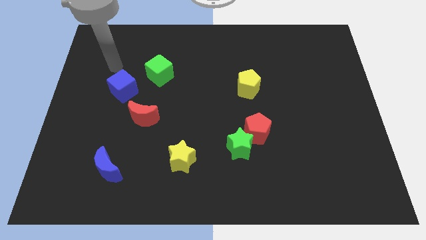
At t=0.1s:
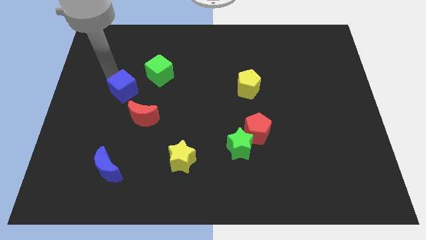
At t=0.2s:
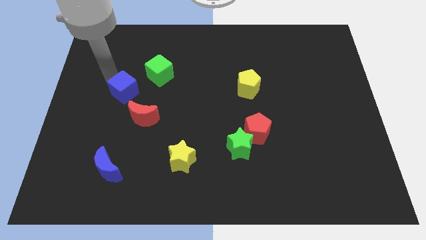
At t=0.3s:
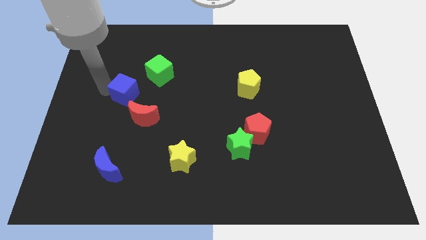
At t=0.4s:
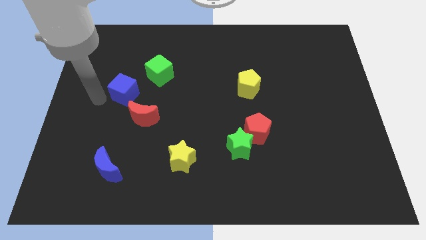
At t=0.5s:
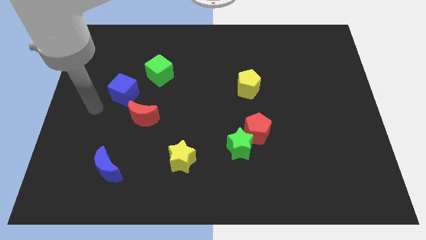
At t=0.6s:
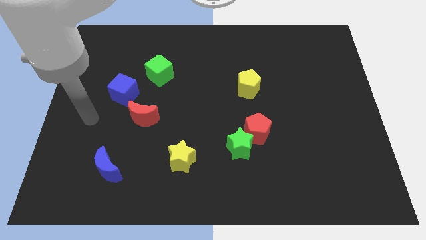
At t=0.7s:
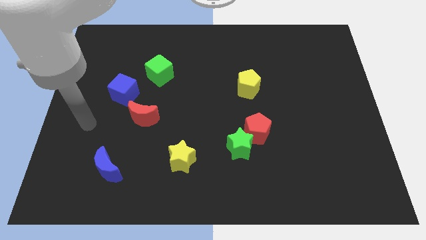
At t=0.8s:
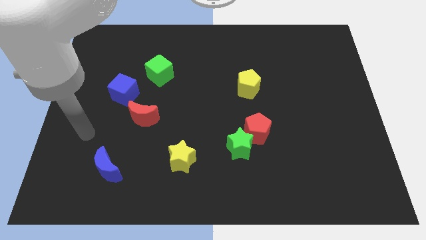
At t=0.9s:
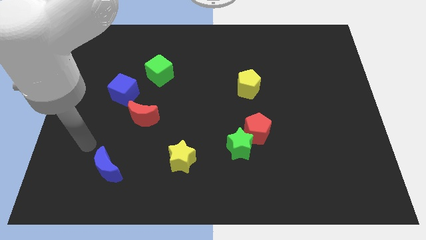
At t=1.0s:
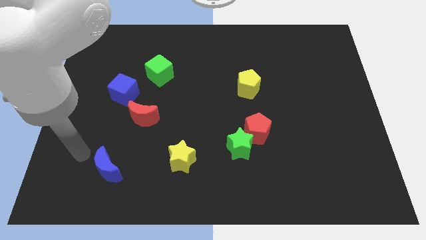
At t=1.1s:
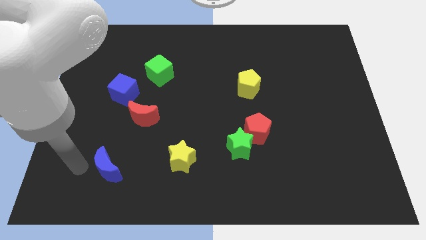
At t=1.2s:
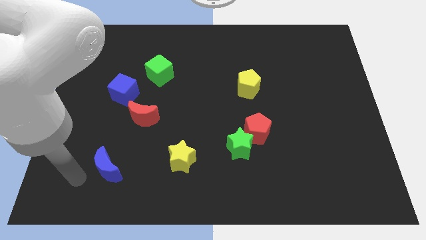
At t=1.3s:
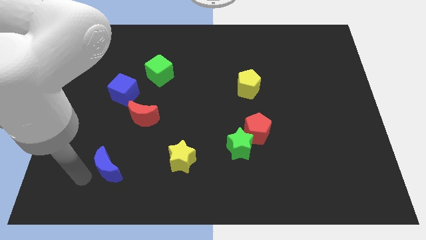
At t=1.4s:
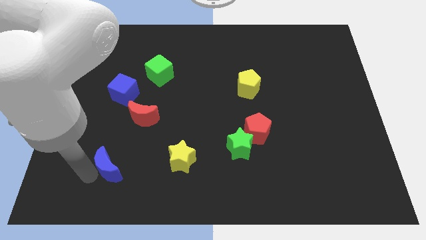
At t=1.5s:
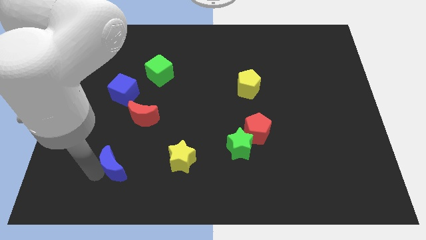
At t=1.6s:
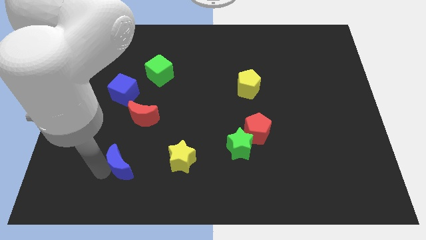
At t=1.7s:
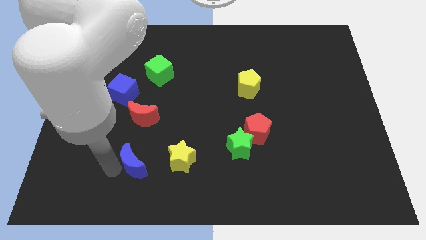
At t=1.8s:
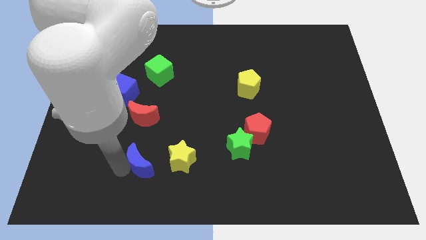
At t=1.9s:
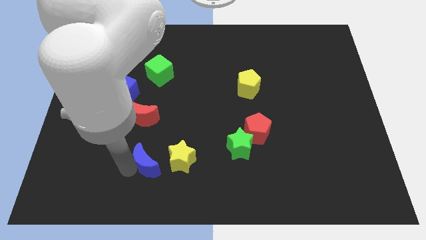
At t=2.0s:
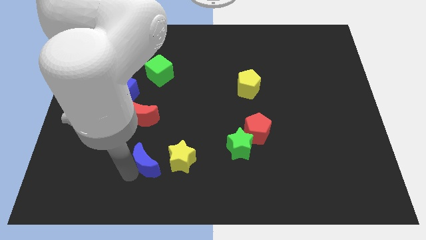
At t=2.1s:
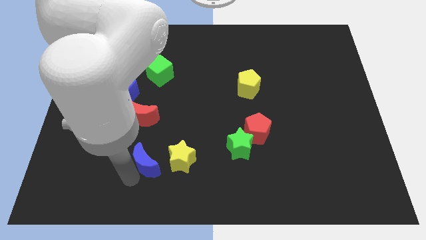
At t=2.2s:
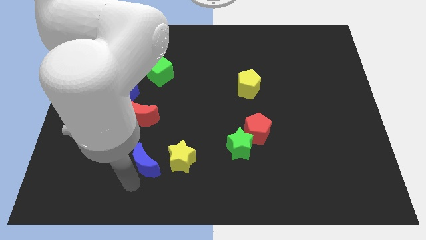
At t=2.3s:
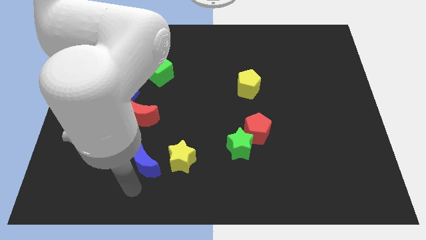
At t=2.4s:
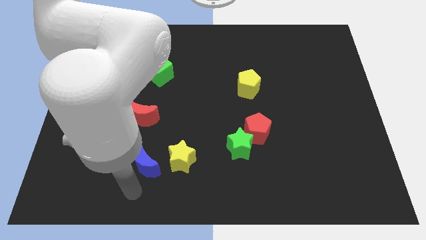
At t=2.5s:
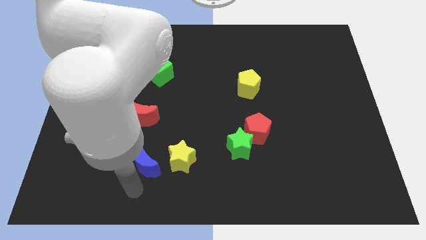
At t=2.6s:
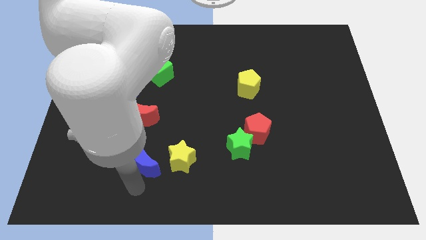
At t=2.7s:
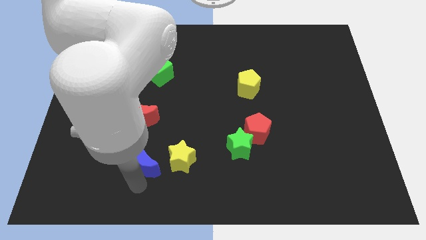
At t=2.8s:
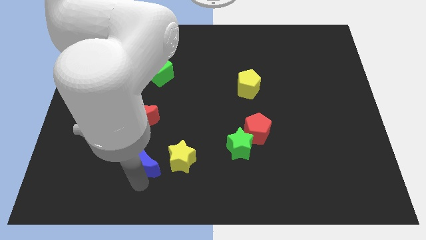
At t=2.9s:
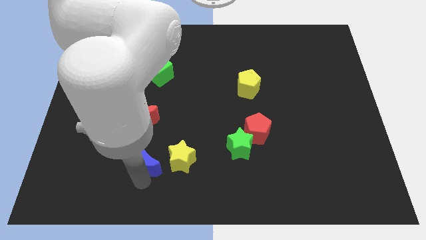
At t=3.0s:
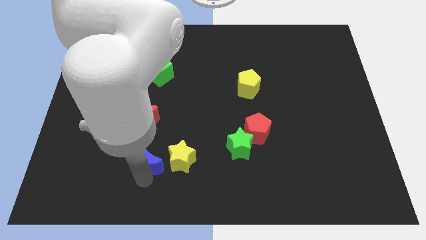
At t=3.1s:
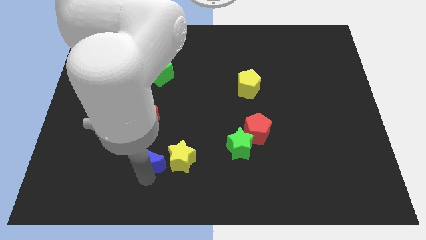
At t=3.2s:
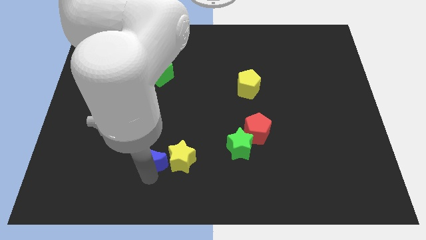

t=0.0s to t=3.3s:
slide the blue moon diagonally up and to the right a bit

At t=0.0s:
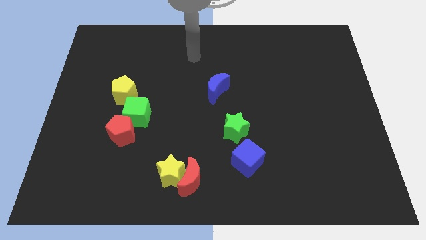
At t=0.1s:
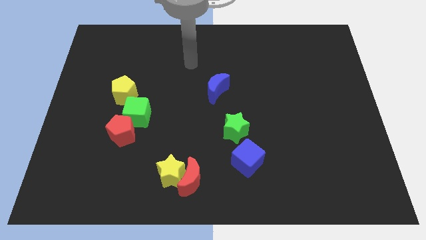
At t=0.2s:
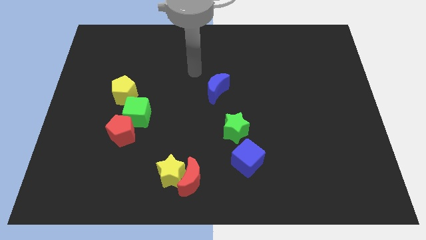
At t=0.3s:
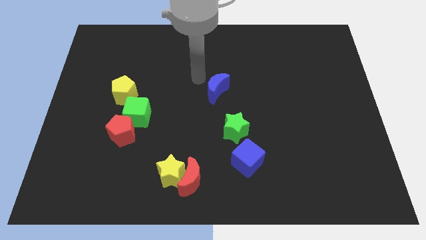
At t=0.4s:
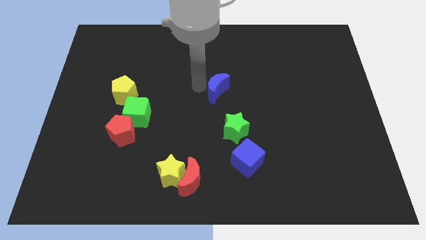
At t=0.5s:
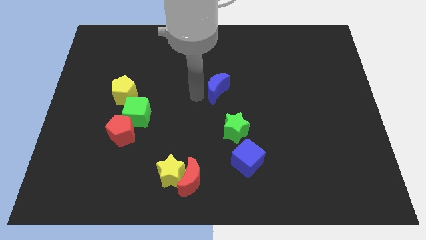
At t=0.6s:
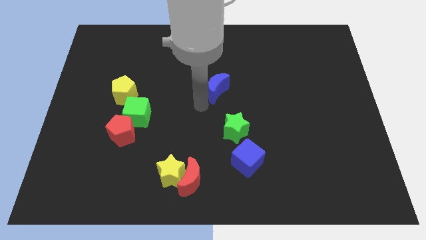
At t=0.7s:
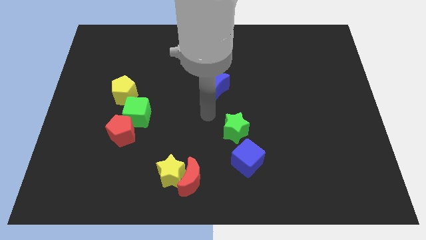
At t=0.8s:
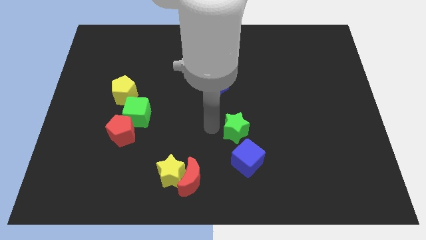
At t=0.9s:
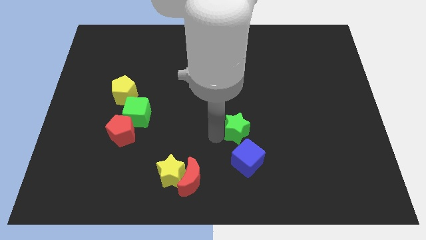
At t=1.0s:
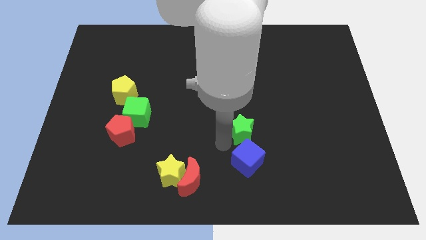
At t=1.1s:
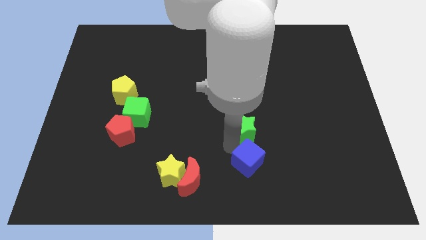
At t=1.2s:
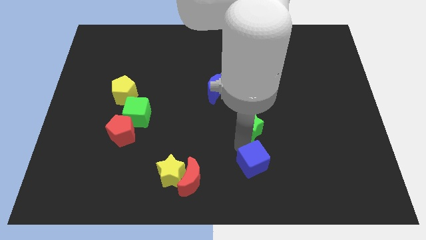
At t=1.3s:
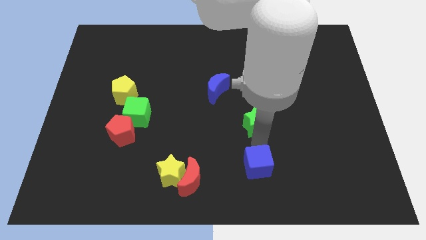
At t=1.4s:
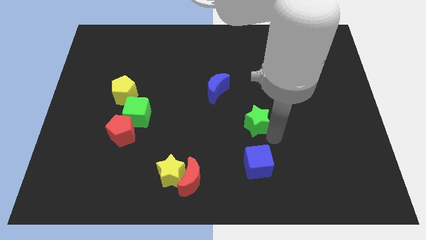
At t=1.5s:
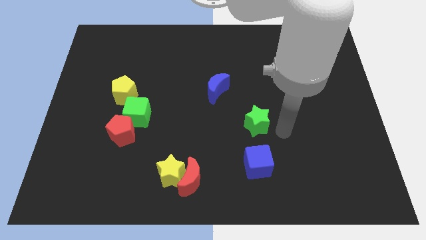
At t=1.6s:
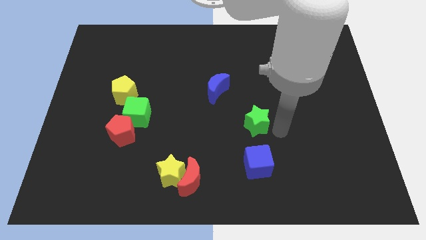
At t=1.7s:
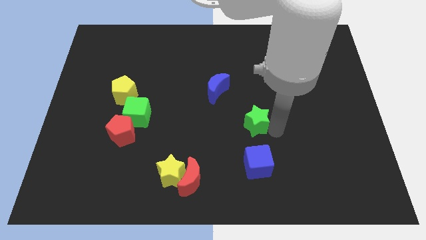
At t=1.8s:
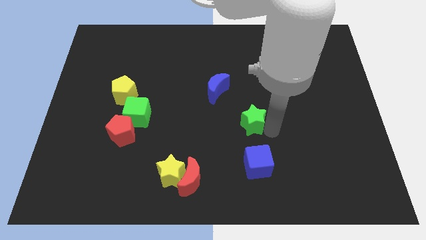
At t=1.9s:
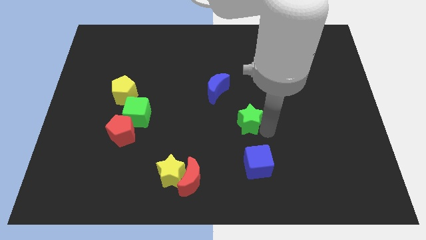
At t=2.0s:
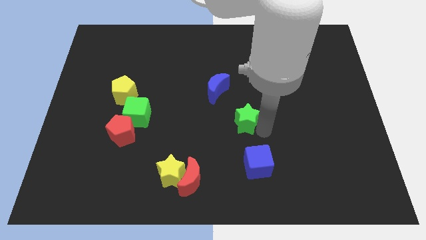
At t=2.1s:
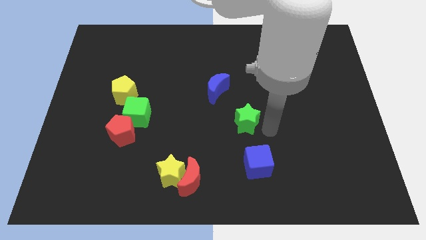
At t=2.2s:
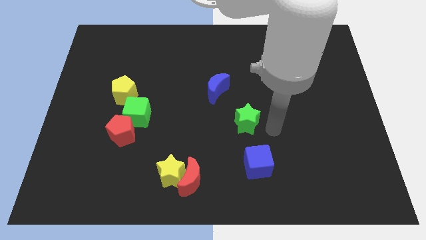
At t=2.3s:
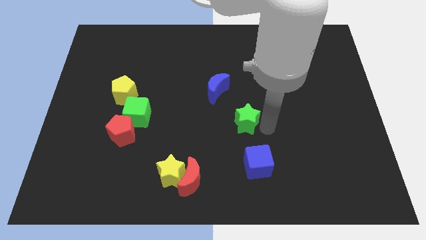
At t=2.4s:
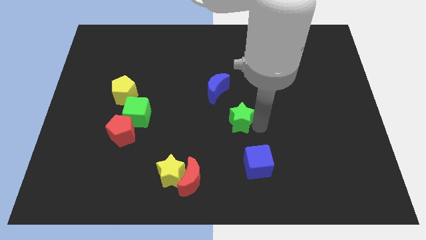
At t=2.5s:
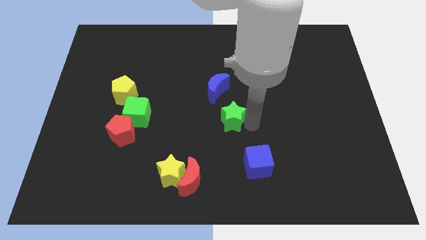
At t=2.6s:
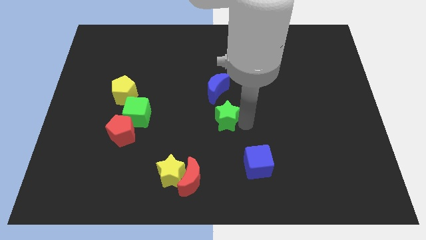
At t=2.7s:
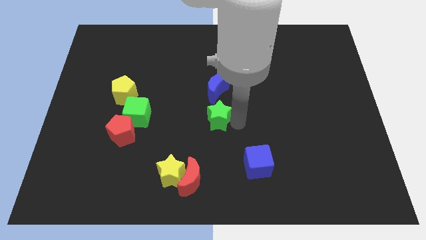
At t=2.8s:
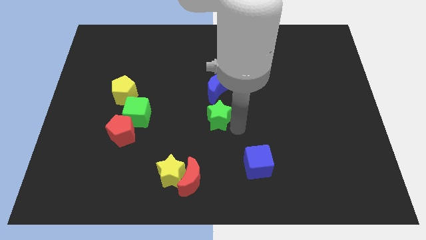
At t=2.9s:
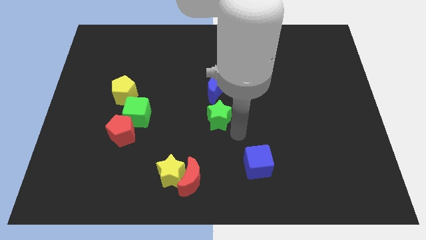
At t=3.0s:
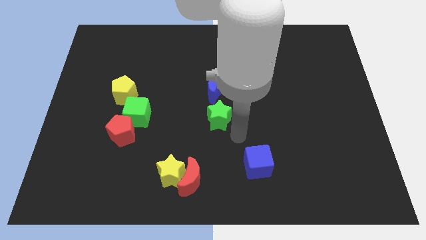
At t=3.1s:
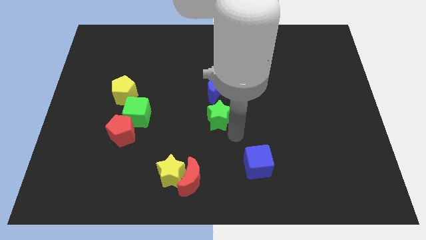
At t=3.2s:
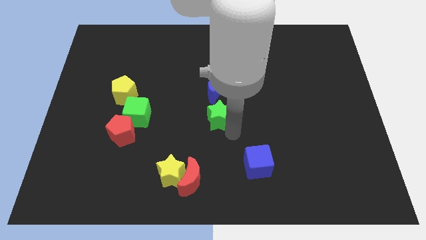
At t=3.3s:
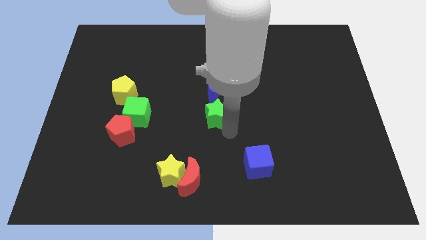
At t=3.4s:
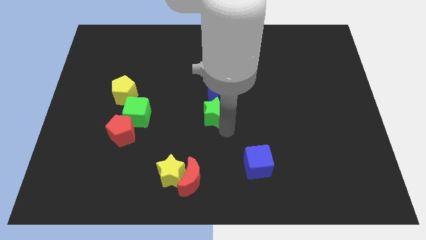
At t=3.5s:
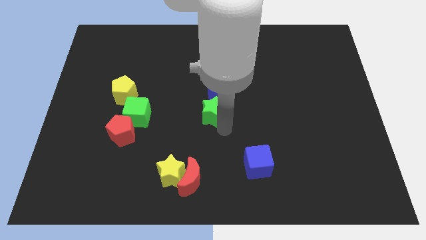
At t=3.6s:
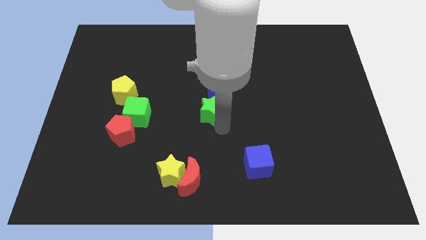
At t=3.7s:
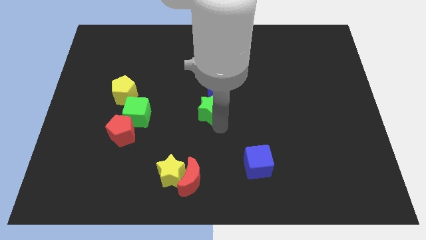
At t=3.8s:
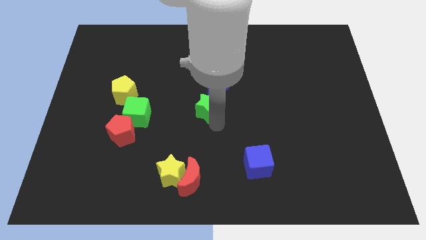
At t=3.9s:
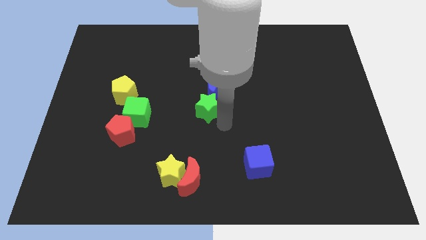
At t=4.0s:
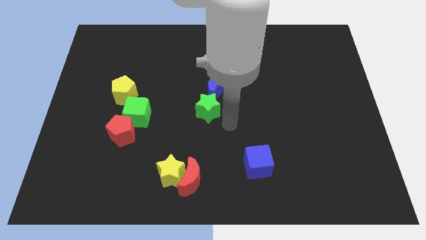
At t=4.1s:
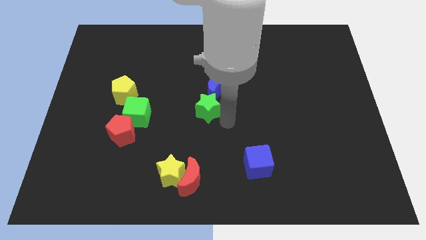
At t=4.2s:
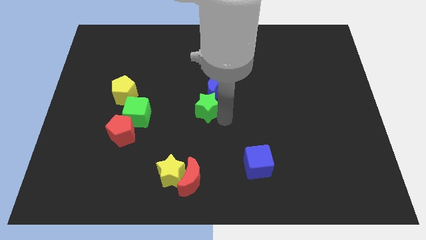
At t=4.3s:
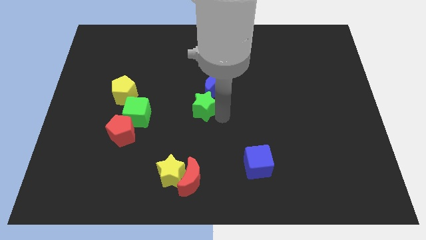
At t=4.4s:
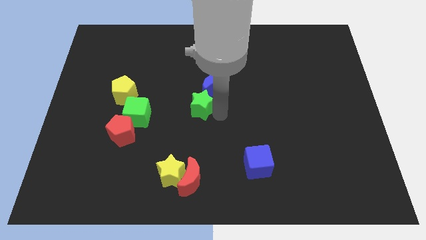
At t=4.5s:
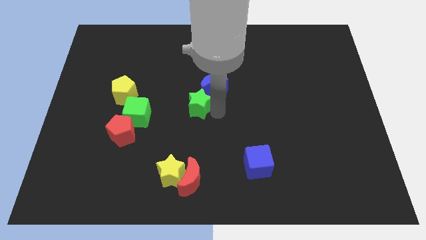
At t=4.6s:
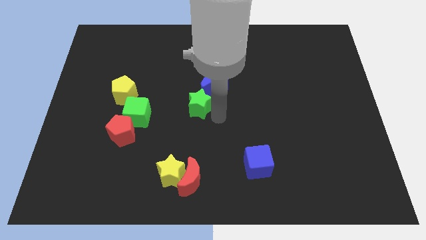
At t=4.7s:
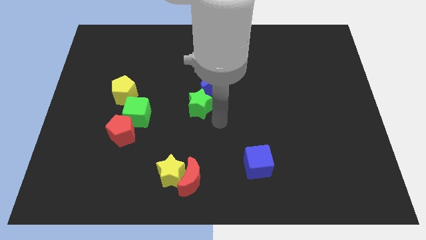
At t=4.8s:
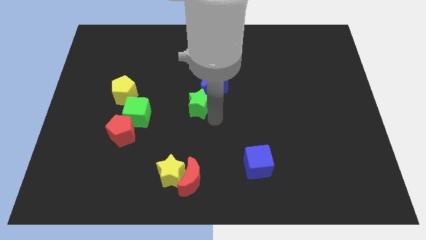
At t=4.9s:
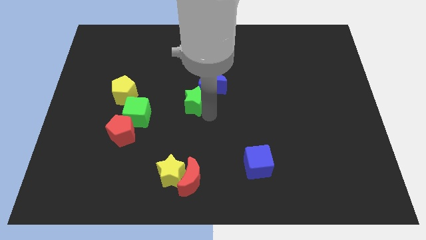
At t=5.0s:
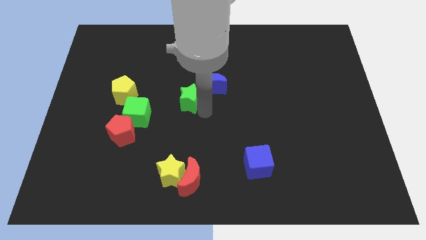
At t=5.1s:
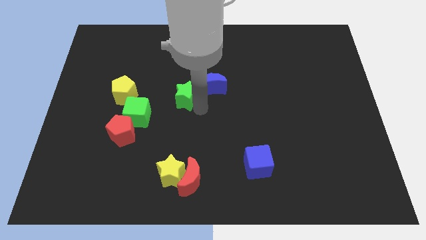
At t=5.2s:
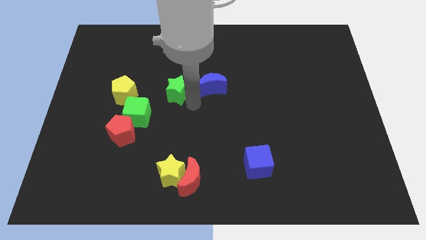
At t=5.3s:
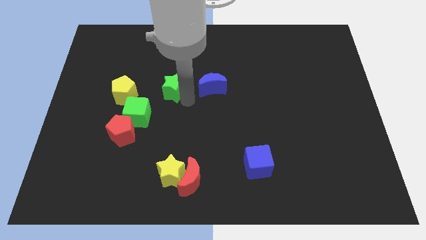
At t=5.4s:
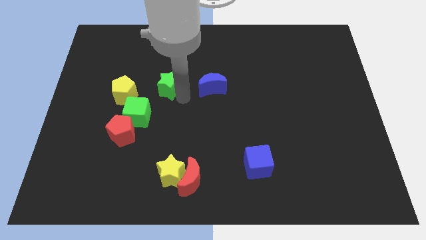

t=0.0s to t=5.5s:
push the green star diagonally upwards and to the left
